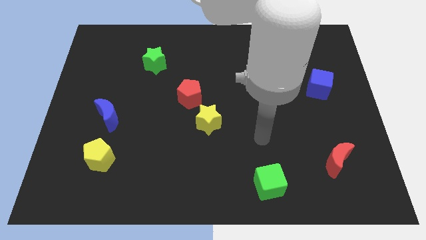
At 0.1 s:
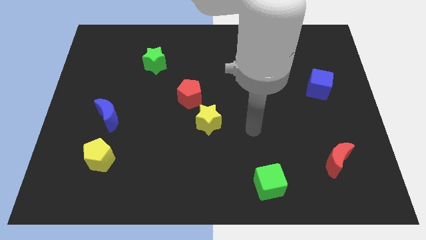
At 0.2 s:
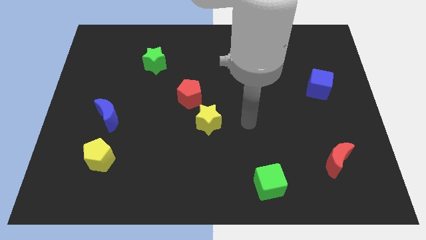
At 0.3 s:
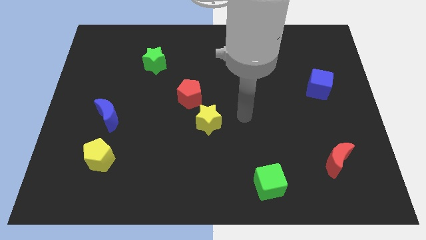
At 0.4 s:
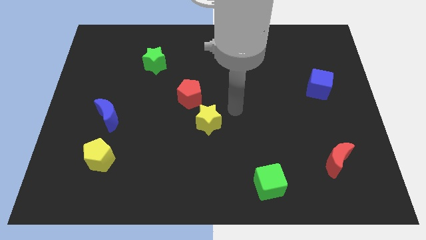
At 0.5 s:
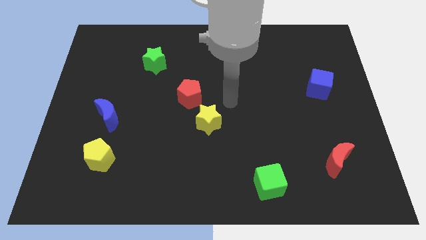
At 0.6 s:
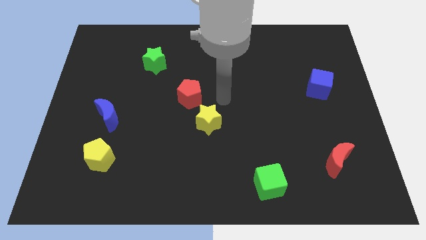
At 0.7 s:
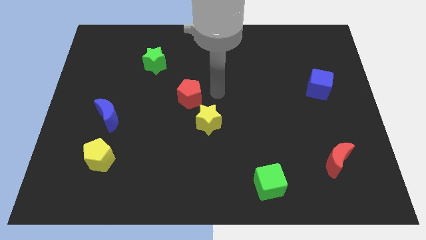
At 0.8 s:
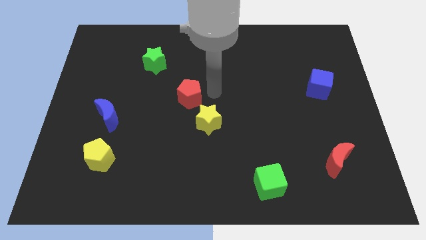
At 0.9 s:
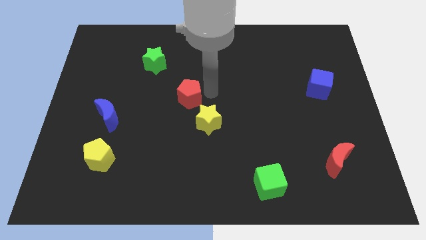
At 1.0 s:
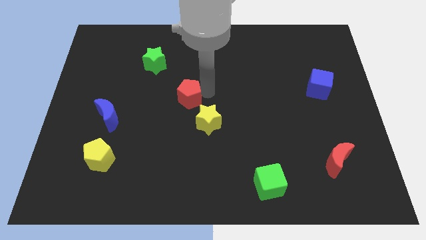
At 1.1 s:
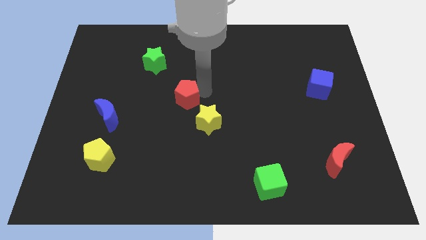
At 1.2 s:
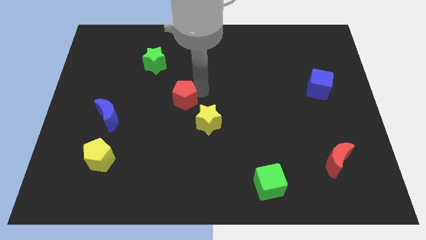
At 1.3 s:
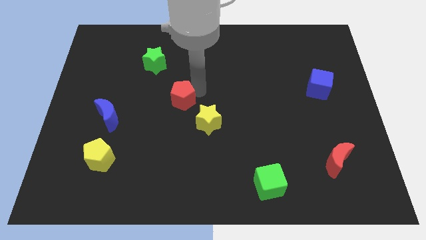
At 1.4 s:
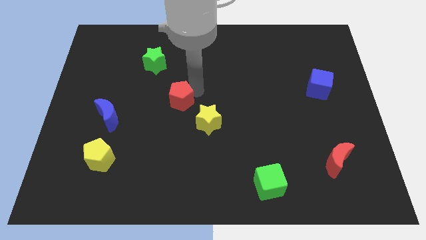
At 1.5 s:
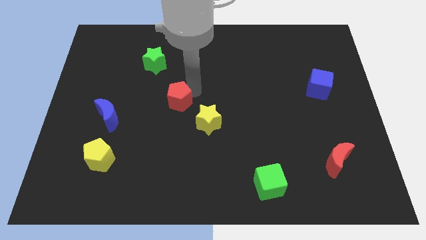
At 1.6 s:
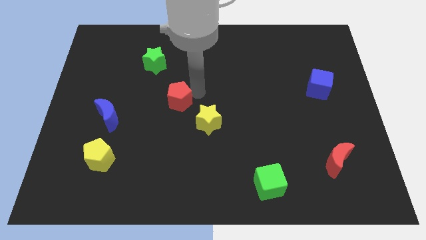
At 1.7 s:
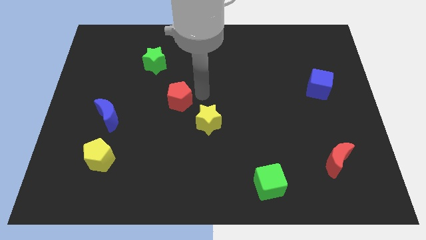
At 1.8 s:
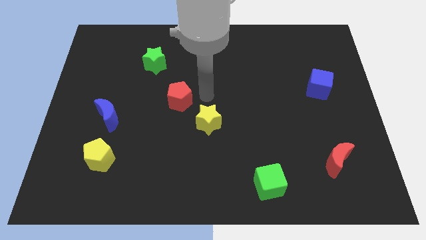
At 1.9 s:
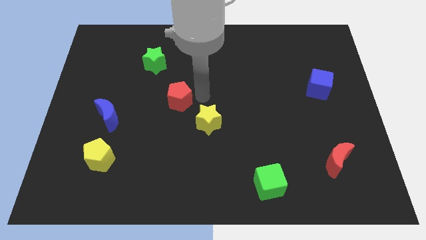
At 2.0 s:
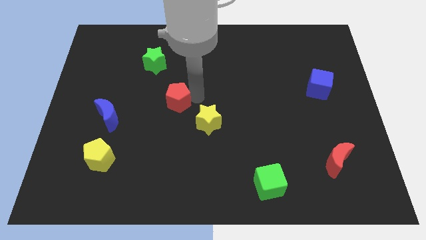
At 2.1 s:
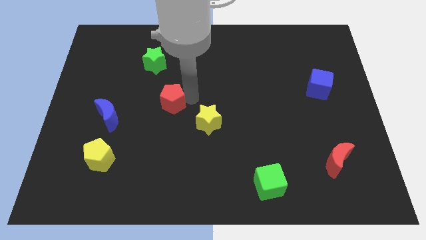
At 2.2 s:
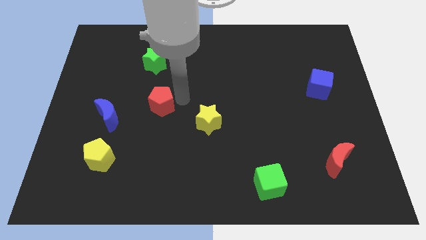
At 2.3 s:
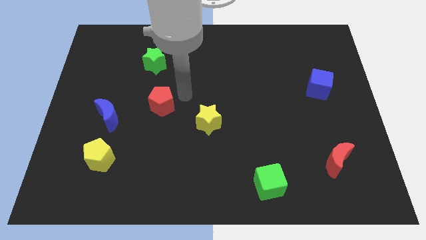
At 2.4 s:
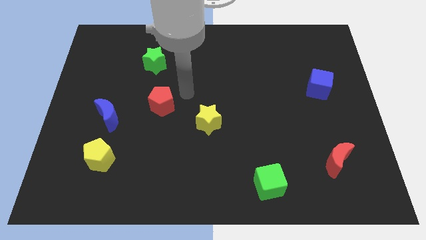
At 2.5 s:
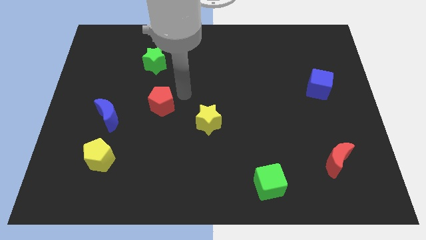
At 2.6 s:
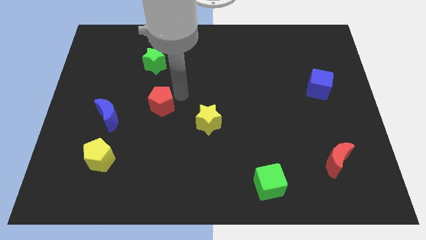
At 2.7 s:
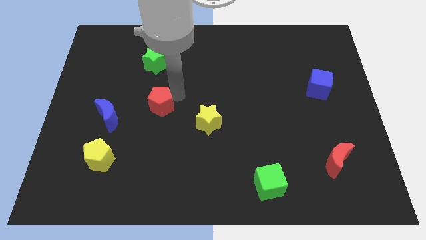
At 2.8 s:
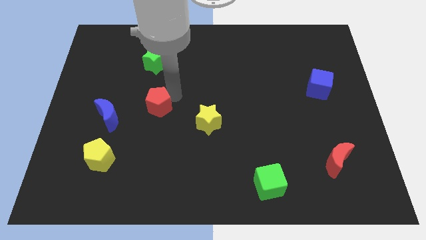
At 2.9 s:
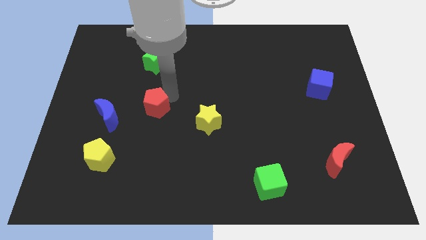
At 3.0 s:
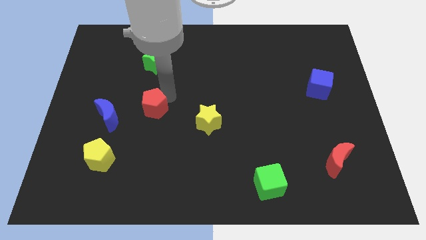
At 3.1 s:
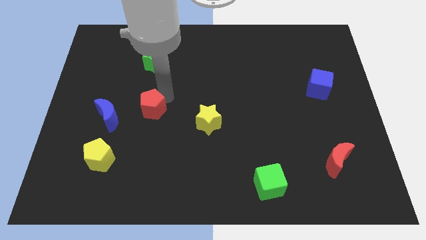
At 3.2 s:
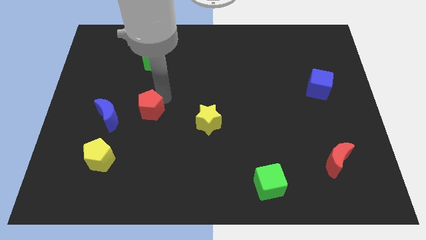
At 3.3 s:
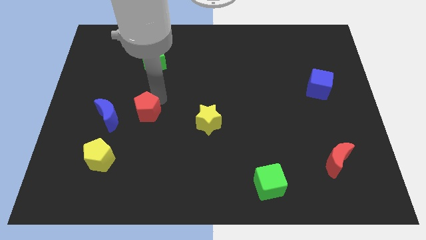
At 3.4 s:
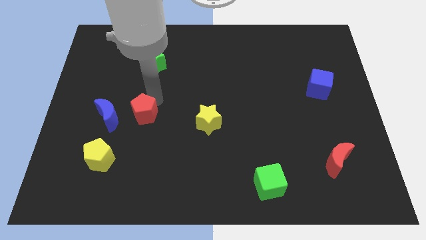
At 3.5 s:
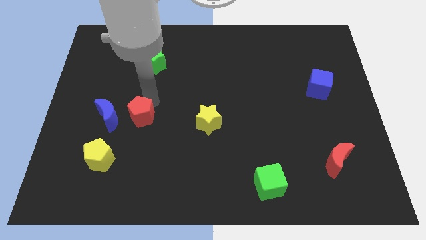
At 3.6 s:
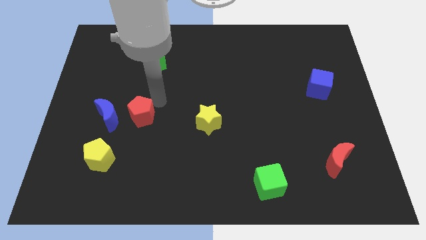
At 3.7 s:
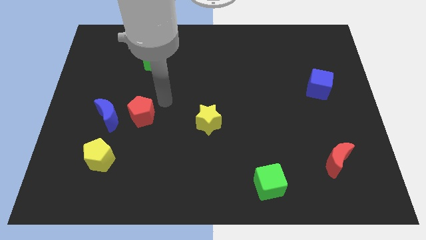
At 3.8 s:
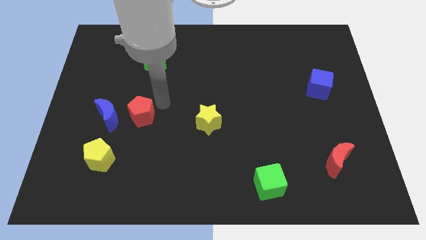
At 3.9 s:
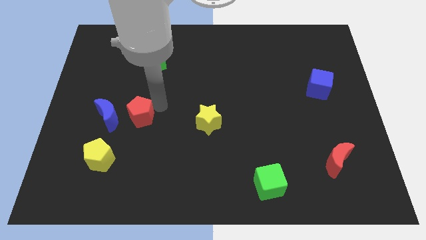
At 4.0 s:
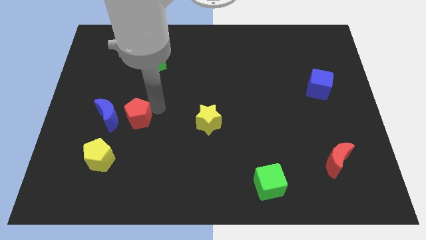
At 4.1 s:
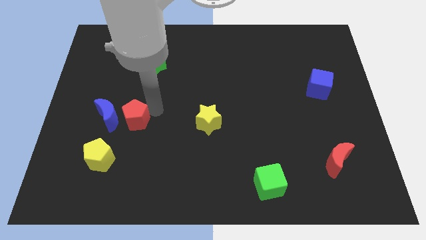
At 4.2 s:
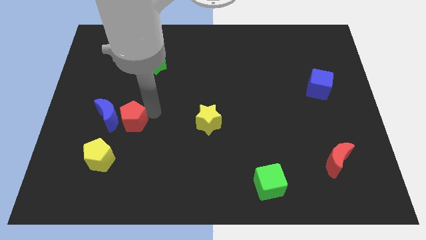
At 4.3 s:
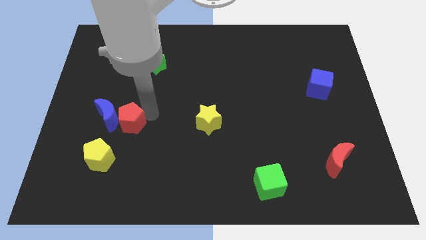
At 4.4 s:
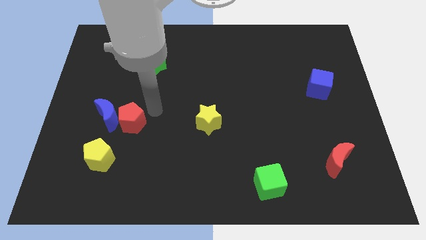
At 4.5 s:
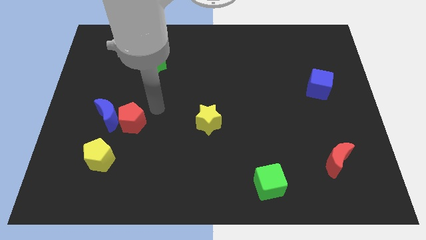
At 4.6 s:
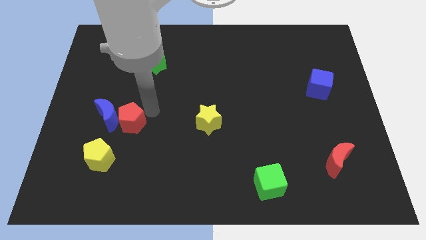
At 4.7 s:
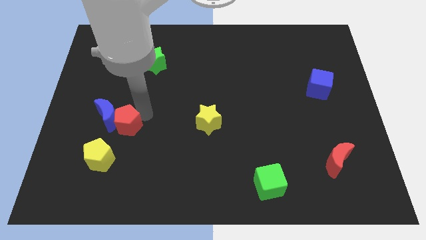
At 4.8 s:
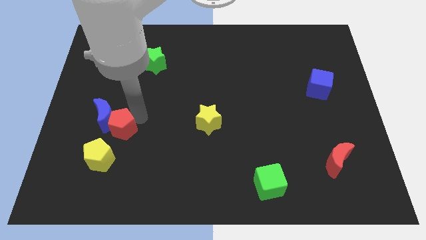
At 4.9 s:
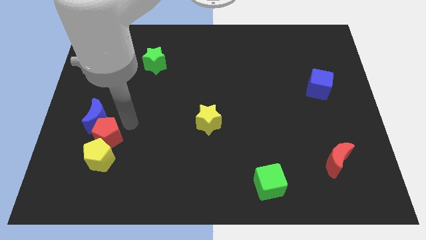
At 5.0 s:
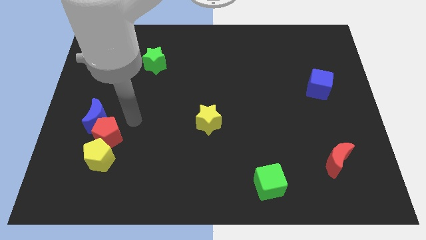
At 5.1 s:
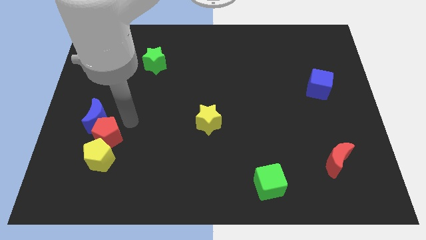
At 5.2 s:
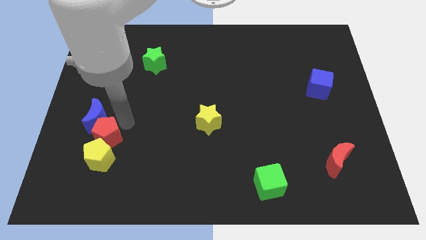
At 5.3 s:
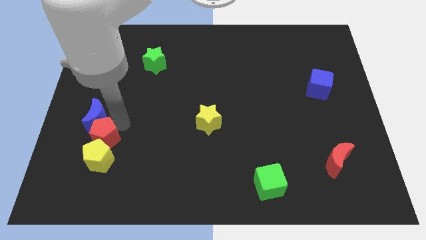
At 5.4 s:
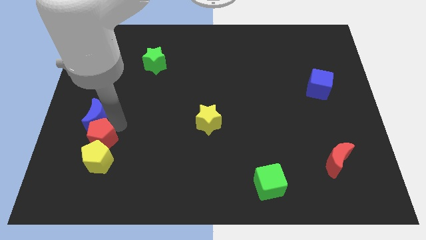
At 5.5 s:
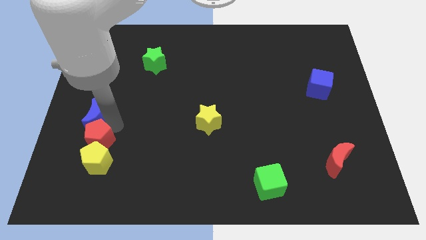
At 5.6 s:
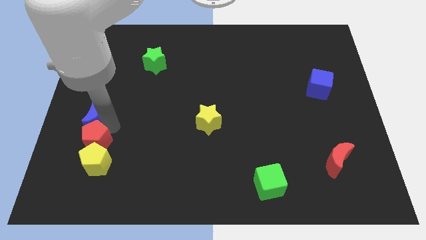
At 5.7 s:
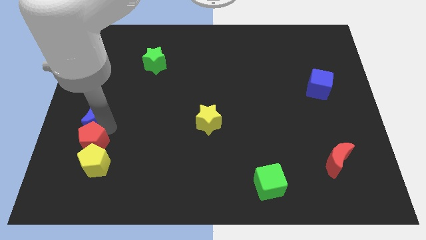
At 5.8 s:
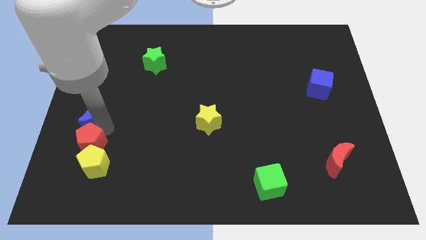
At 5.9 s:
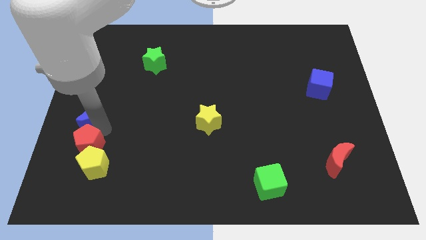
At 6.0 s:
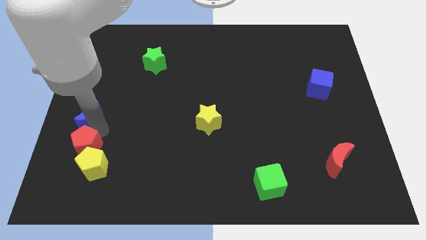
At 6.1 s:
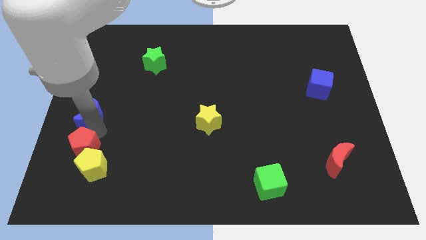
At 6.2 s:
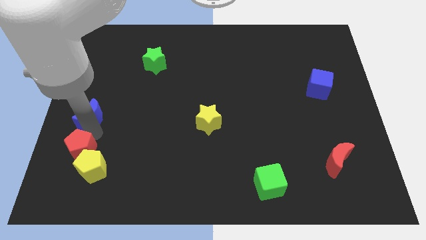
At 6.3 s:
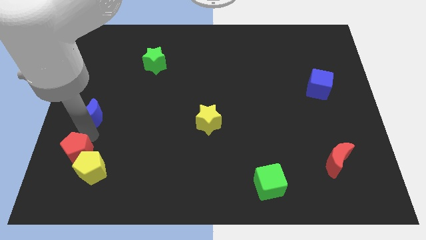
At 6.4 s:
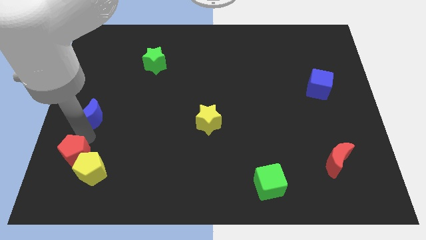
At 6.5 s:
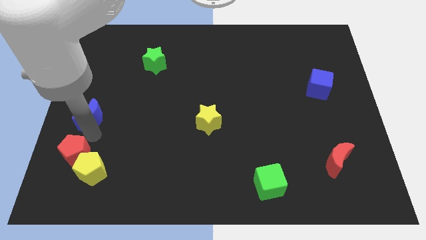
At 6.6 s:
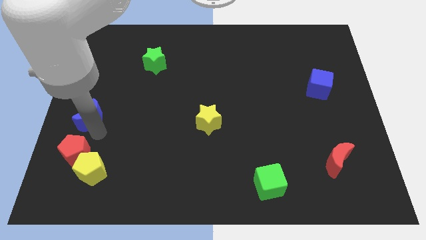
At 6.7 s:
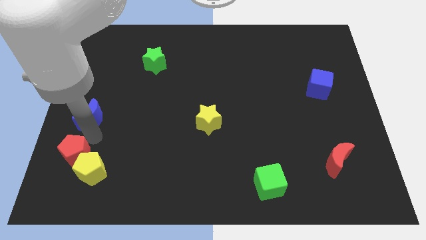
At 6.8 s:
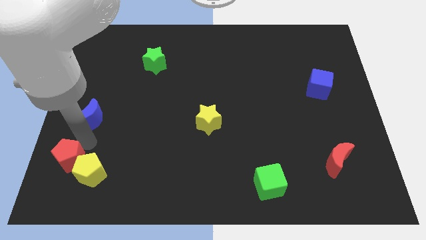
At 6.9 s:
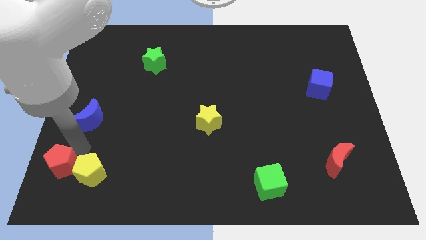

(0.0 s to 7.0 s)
move the red pentagon to the bottom left
